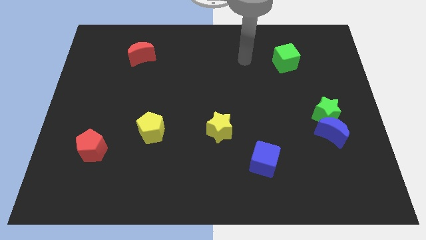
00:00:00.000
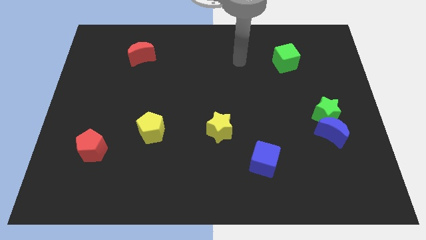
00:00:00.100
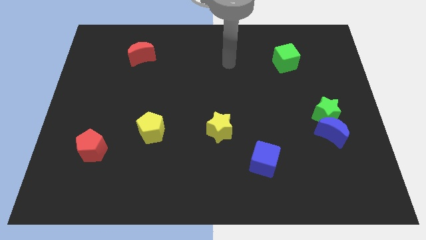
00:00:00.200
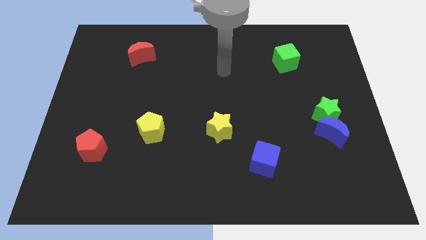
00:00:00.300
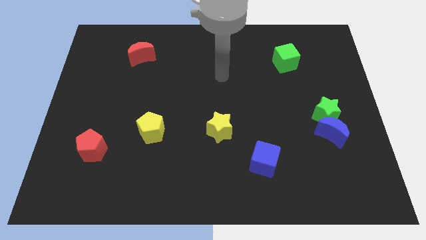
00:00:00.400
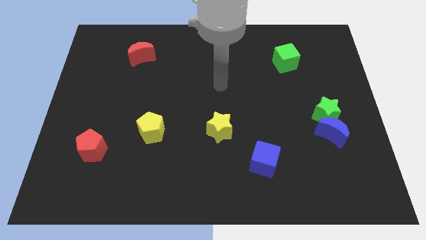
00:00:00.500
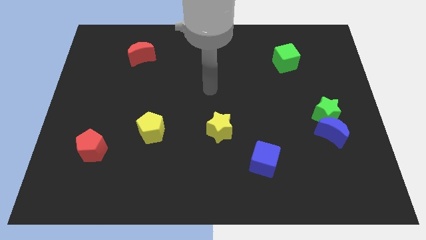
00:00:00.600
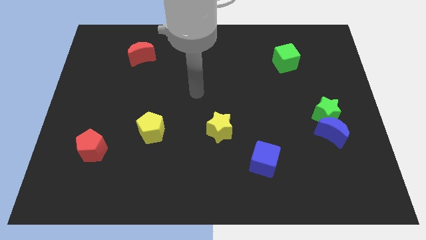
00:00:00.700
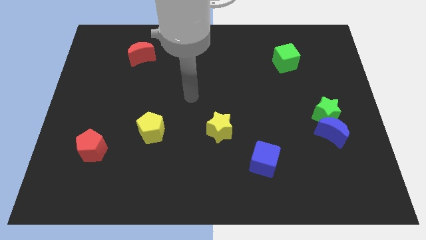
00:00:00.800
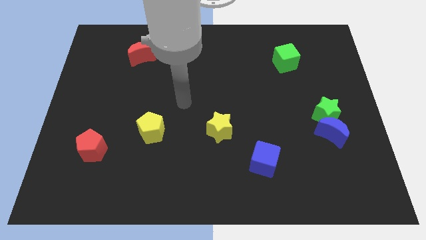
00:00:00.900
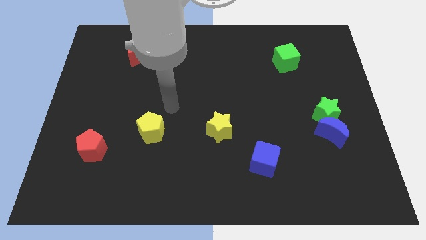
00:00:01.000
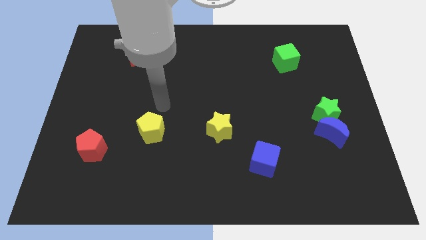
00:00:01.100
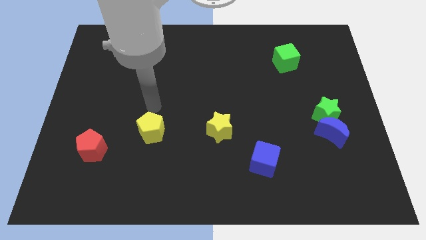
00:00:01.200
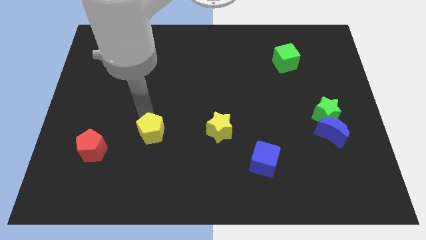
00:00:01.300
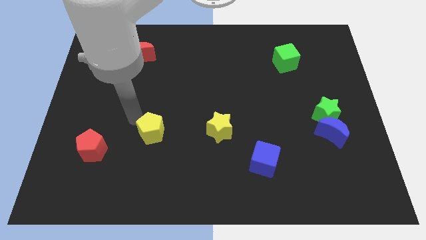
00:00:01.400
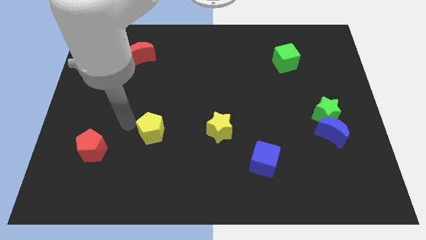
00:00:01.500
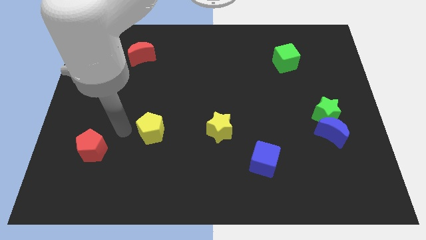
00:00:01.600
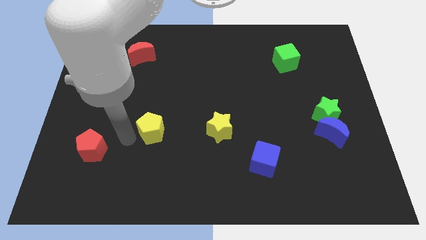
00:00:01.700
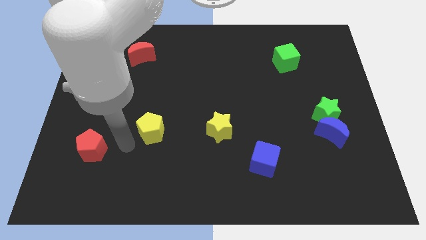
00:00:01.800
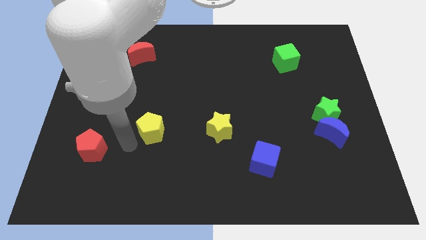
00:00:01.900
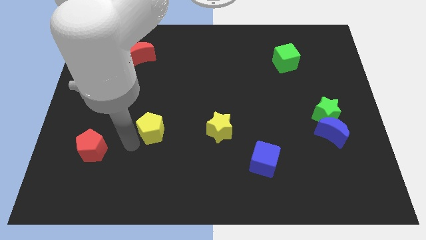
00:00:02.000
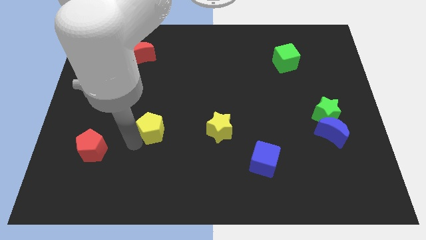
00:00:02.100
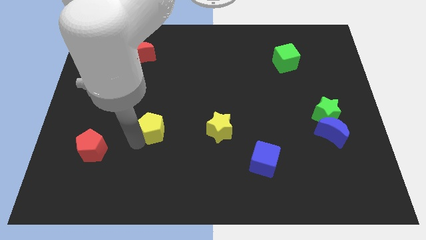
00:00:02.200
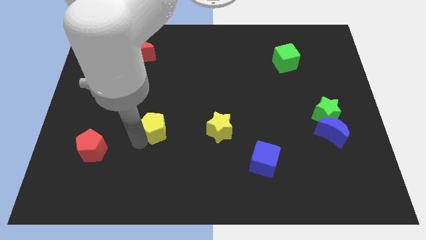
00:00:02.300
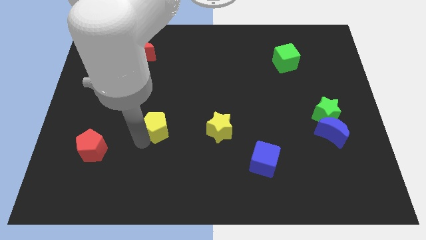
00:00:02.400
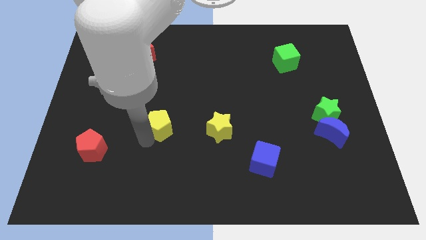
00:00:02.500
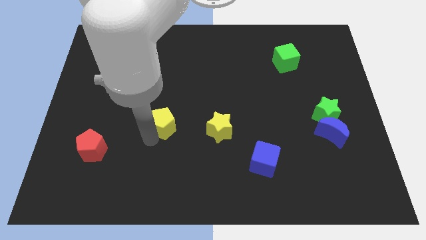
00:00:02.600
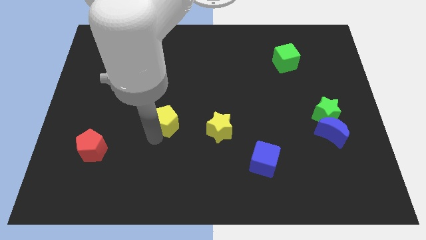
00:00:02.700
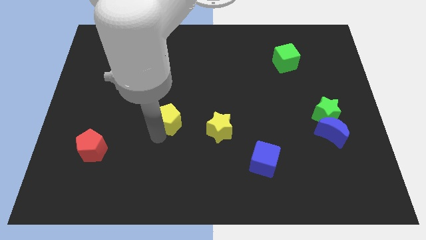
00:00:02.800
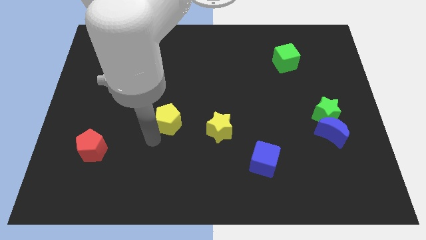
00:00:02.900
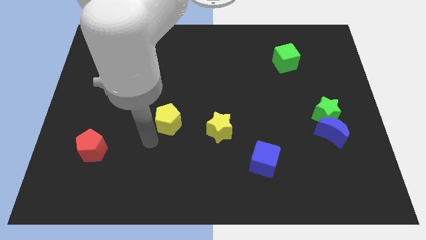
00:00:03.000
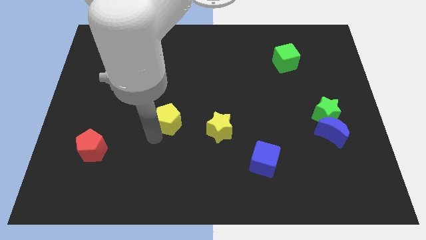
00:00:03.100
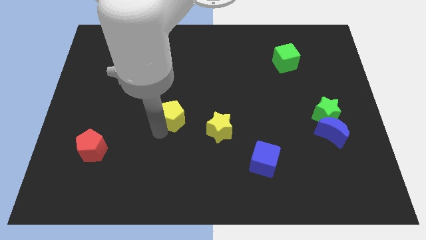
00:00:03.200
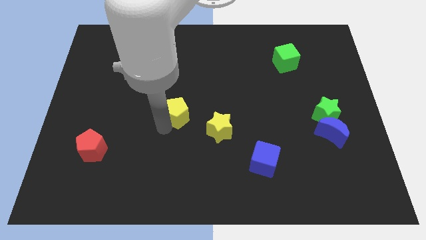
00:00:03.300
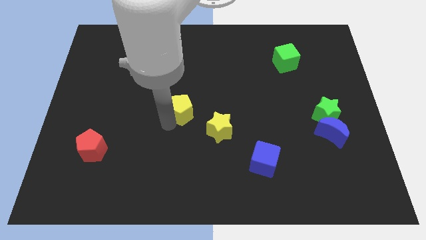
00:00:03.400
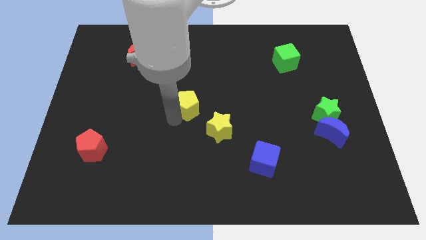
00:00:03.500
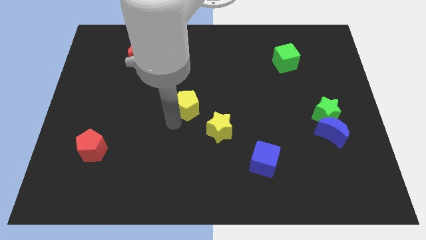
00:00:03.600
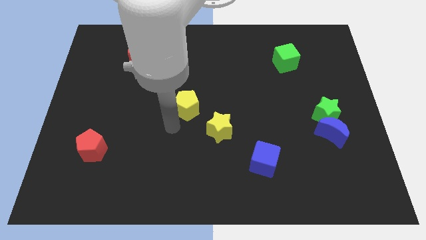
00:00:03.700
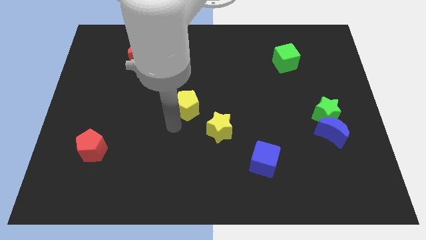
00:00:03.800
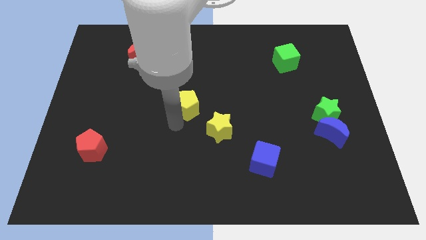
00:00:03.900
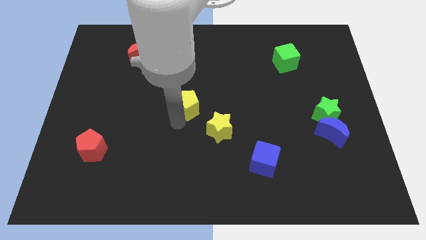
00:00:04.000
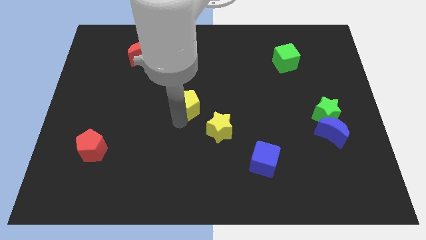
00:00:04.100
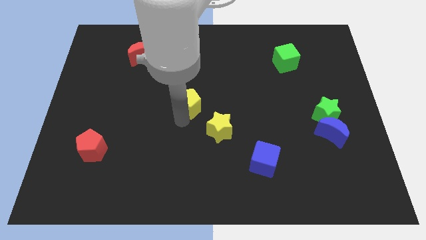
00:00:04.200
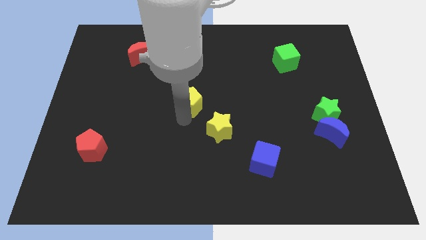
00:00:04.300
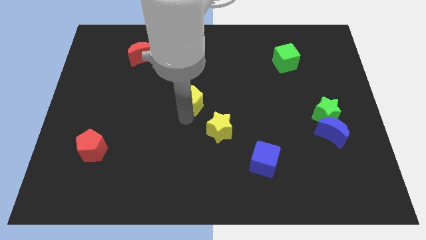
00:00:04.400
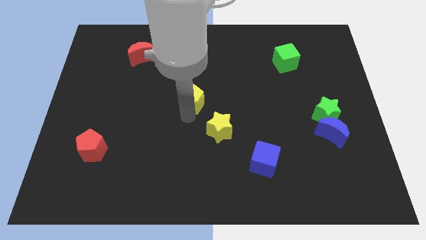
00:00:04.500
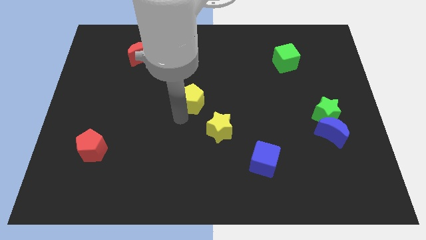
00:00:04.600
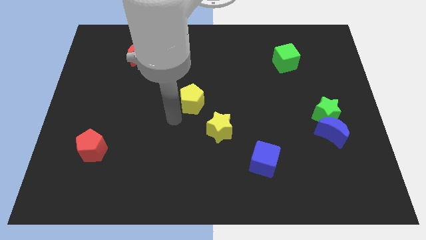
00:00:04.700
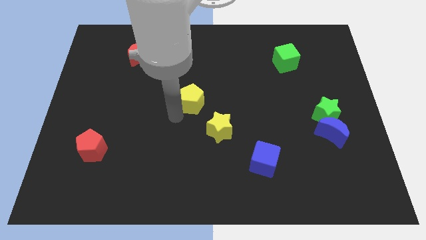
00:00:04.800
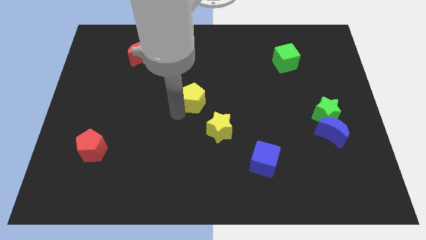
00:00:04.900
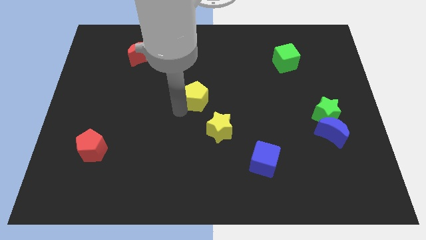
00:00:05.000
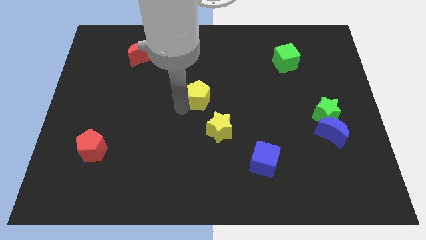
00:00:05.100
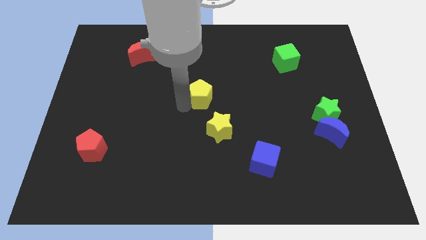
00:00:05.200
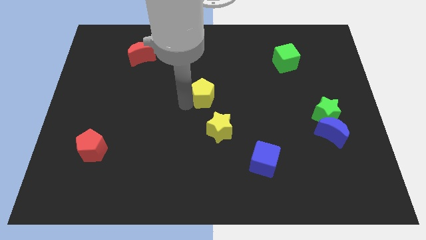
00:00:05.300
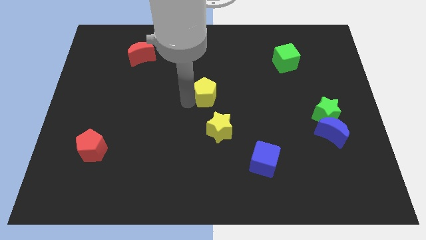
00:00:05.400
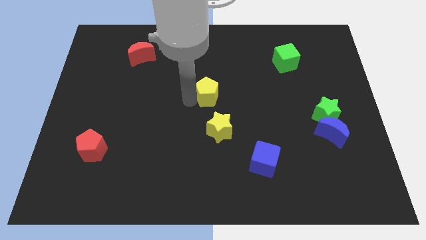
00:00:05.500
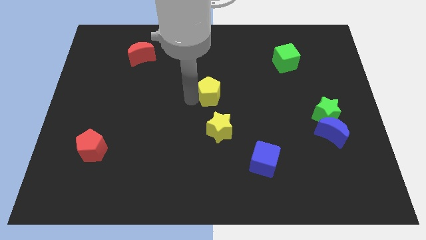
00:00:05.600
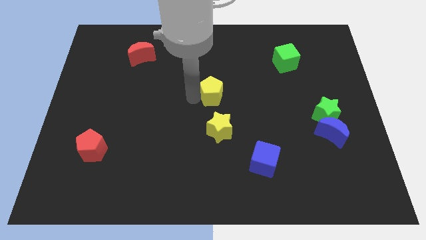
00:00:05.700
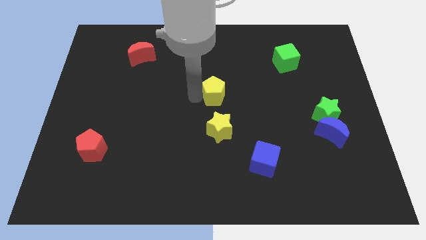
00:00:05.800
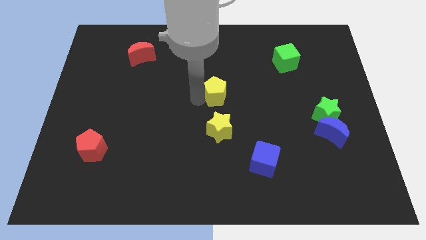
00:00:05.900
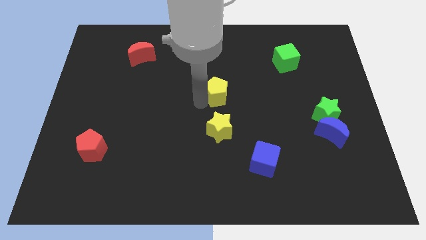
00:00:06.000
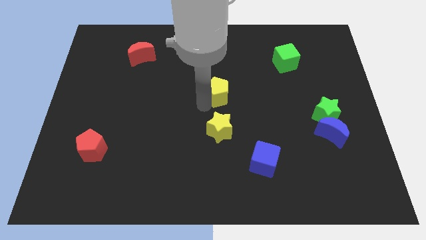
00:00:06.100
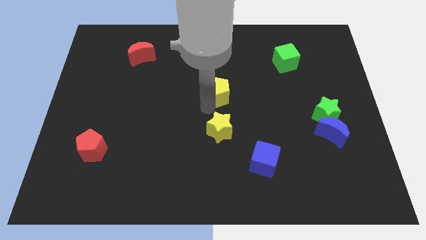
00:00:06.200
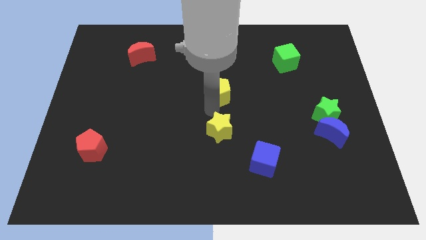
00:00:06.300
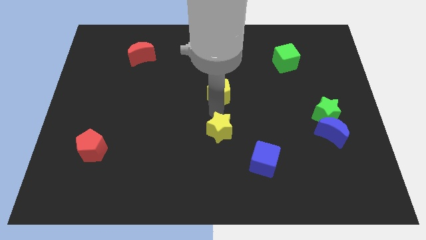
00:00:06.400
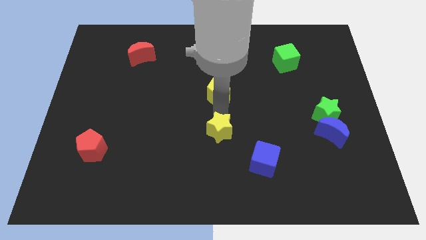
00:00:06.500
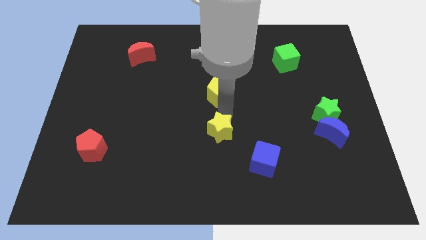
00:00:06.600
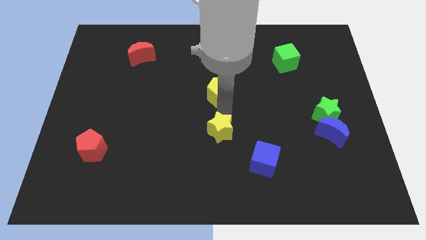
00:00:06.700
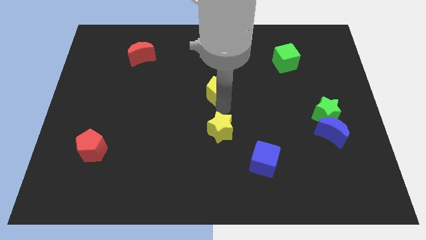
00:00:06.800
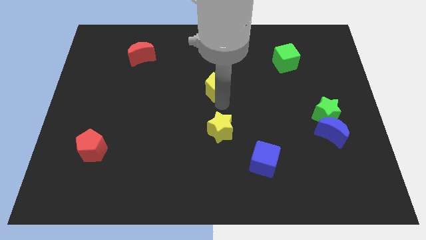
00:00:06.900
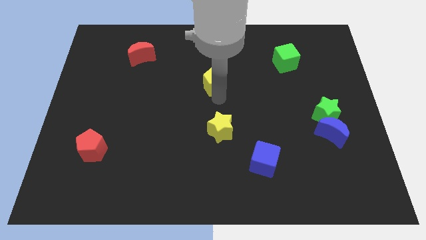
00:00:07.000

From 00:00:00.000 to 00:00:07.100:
slide the yellow pentagon up and then to the right

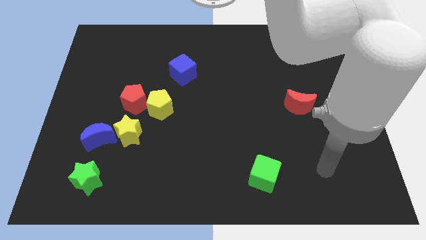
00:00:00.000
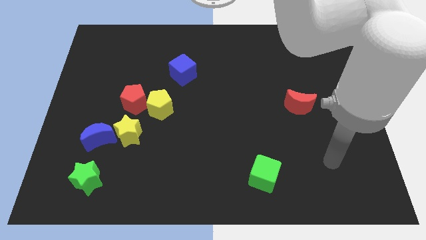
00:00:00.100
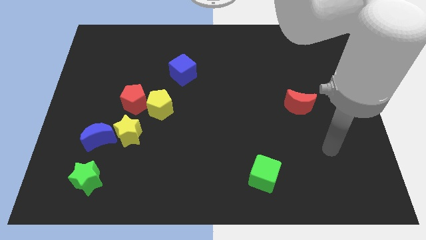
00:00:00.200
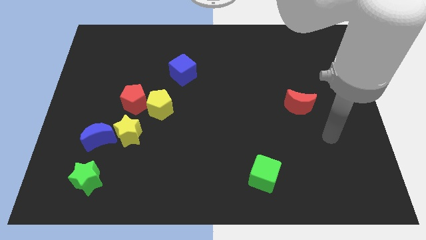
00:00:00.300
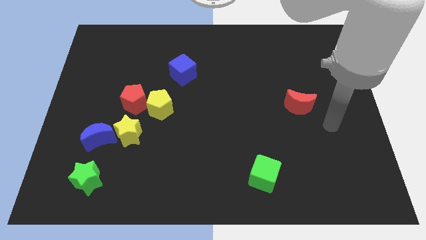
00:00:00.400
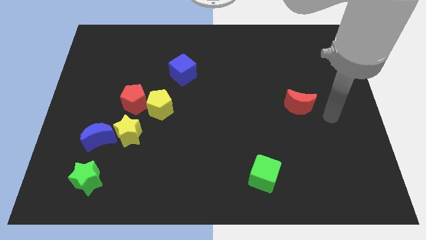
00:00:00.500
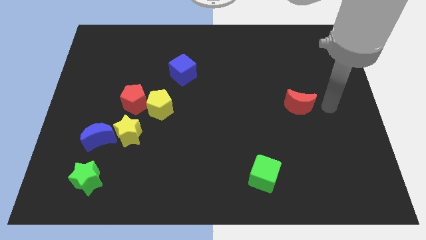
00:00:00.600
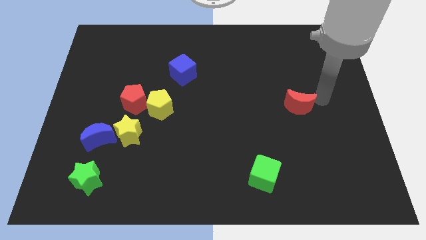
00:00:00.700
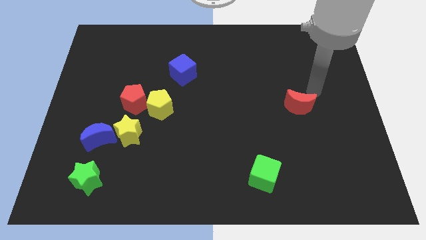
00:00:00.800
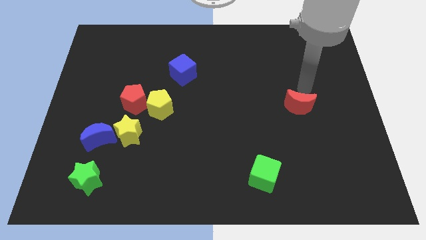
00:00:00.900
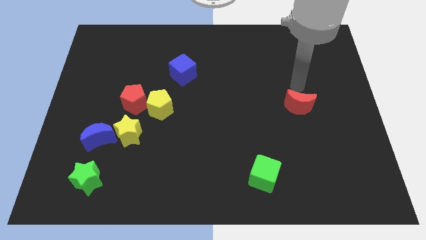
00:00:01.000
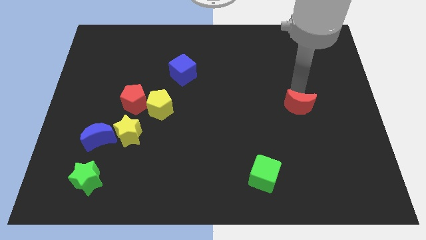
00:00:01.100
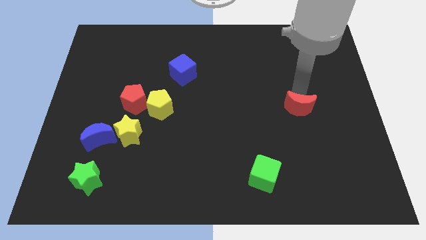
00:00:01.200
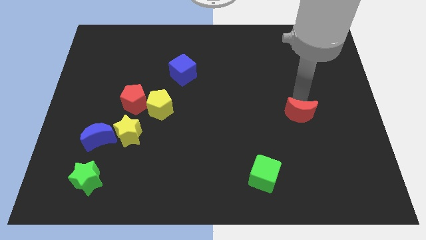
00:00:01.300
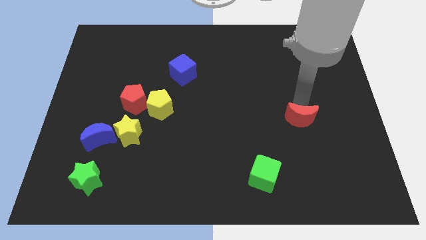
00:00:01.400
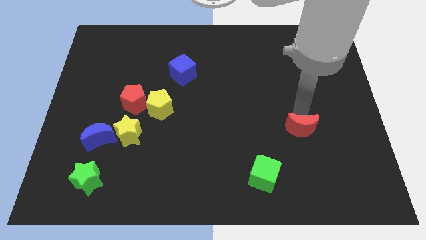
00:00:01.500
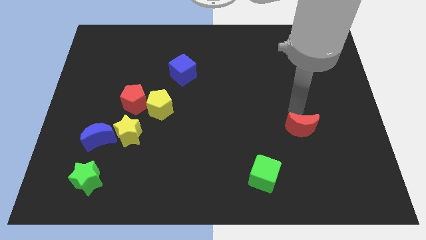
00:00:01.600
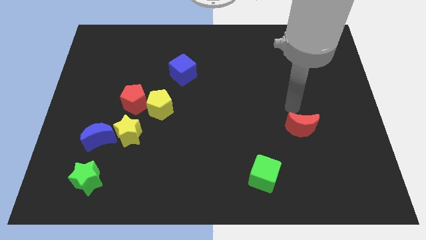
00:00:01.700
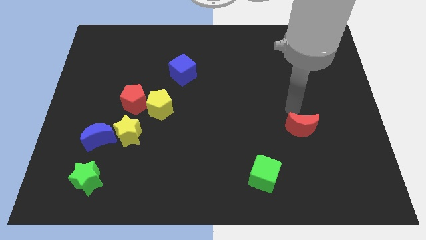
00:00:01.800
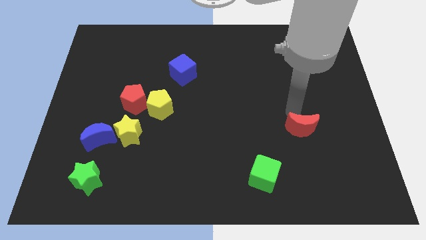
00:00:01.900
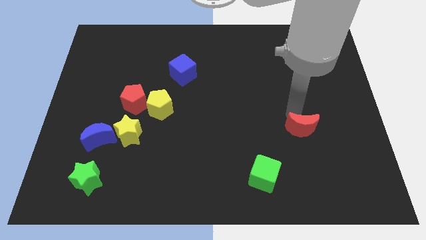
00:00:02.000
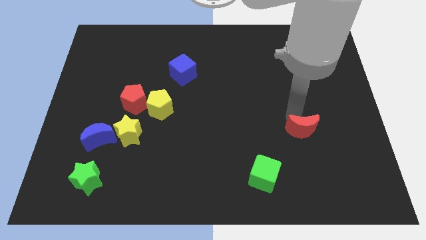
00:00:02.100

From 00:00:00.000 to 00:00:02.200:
push the red moon down a bit
